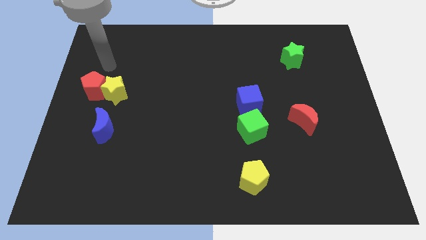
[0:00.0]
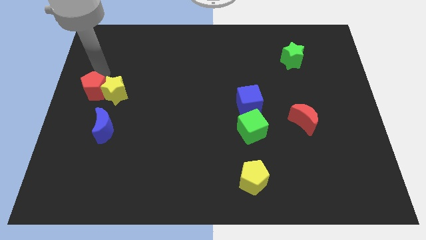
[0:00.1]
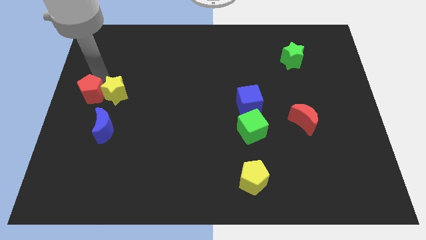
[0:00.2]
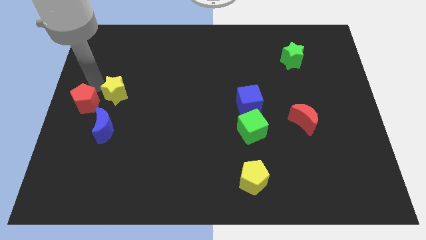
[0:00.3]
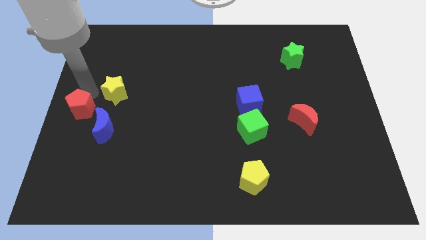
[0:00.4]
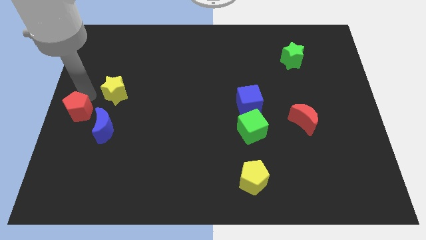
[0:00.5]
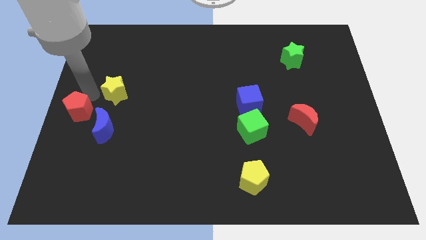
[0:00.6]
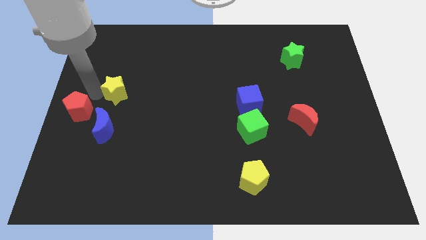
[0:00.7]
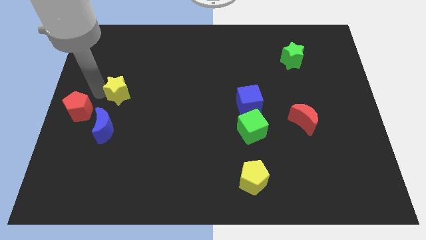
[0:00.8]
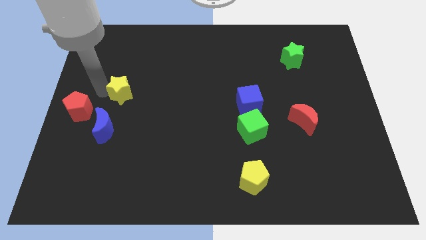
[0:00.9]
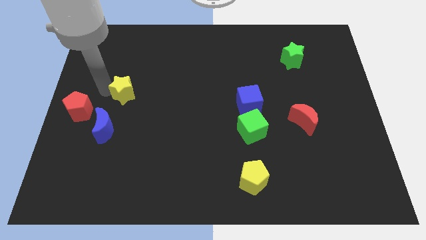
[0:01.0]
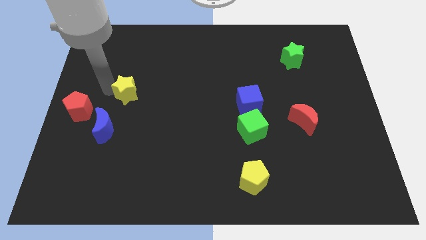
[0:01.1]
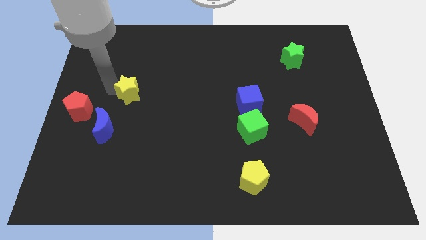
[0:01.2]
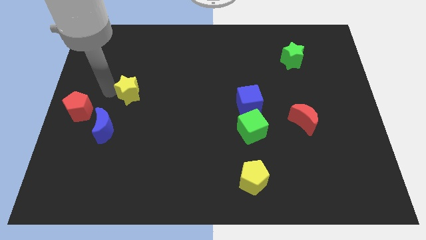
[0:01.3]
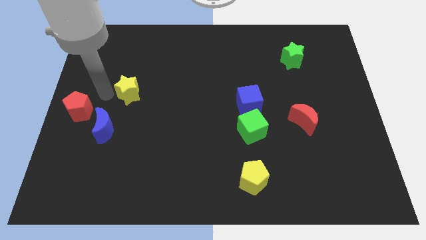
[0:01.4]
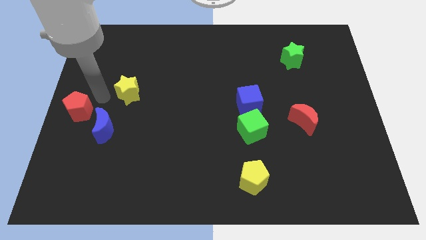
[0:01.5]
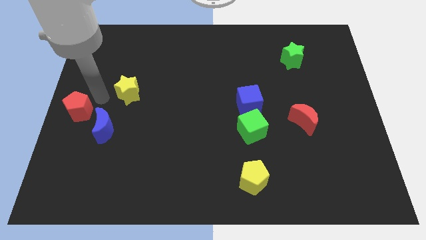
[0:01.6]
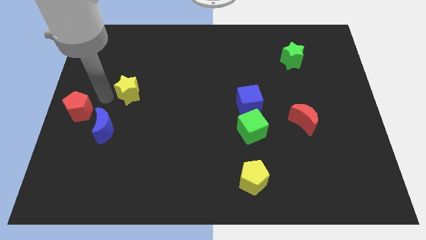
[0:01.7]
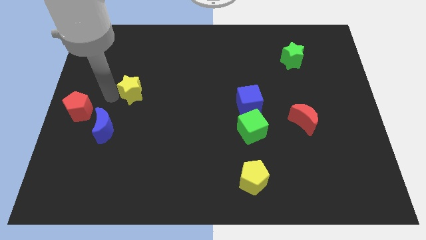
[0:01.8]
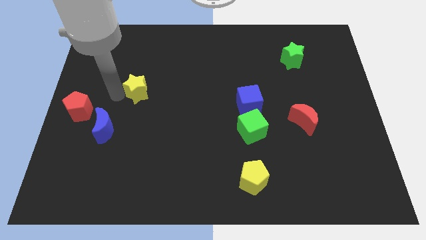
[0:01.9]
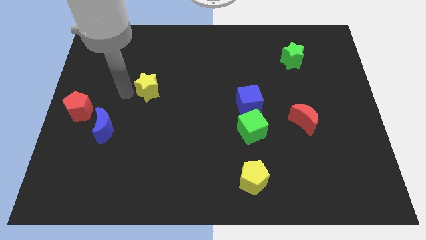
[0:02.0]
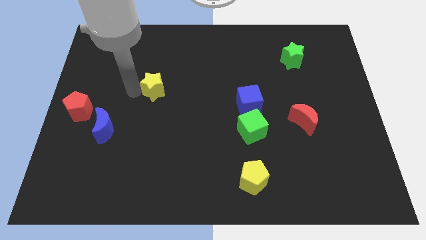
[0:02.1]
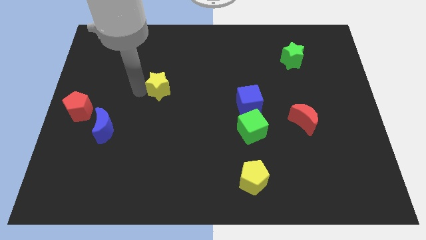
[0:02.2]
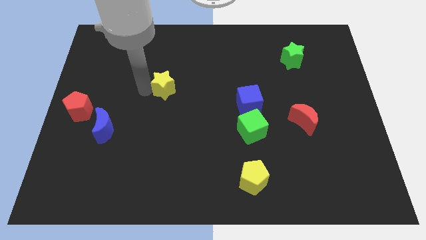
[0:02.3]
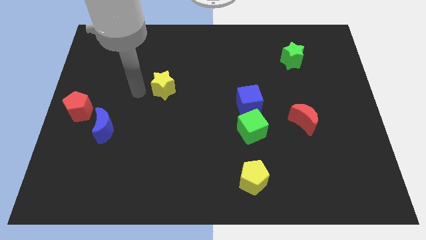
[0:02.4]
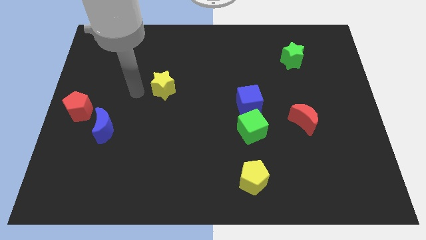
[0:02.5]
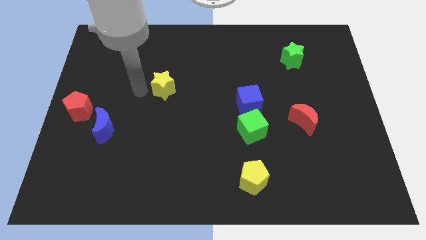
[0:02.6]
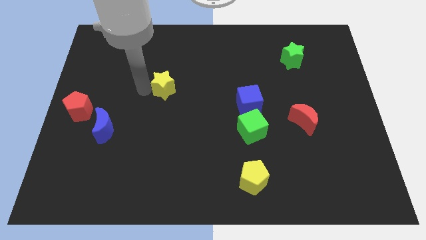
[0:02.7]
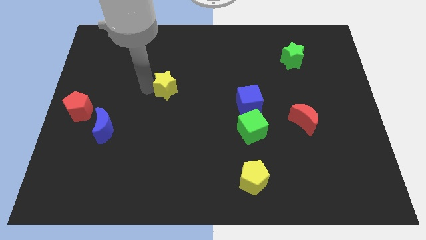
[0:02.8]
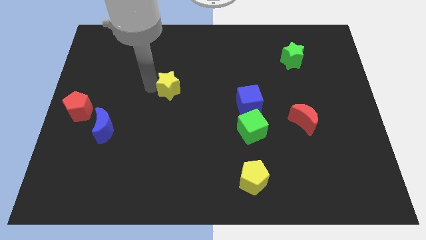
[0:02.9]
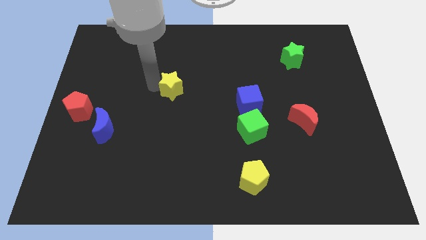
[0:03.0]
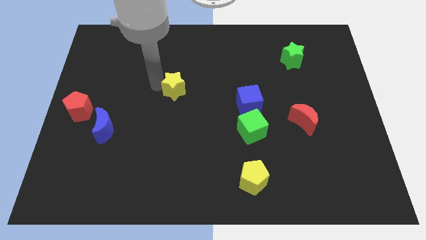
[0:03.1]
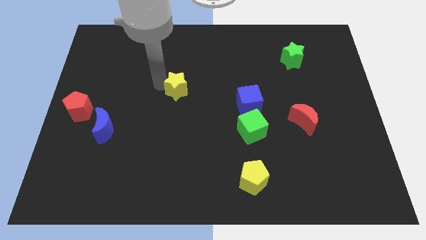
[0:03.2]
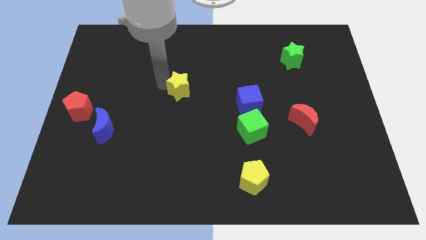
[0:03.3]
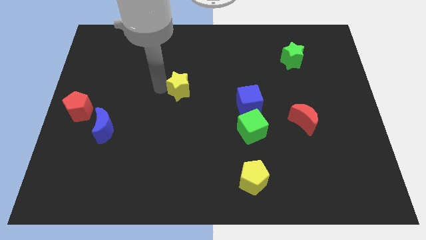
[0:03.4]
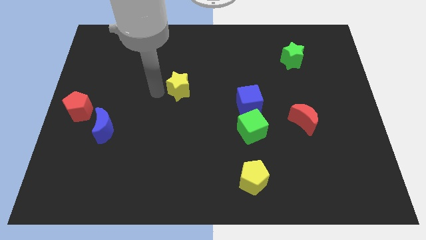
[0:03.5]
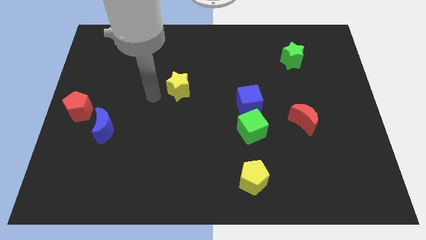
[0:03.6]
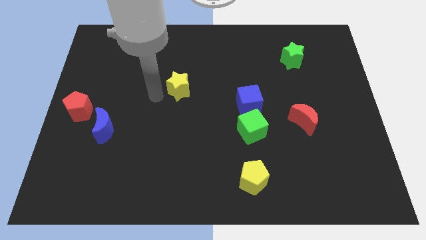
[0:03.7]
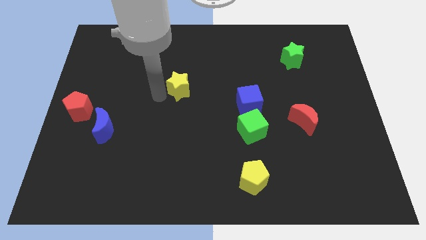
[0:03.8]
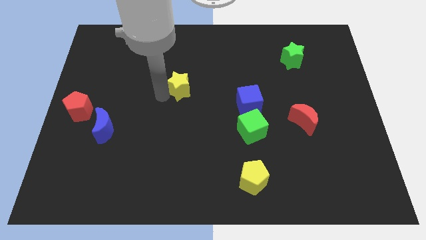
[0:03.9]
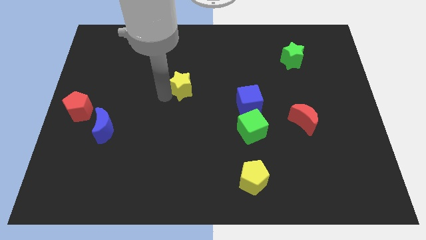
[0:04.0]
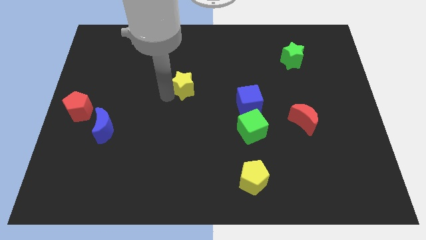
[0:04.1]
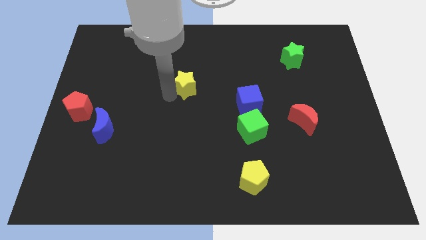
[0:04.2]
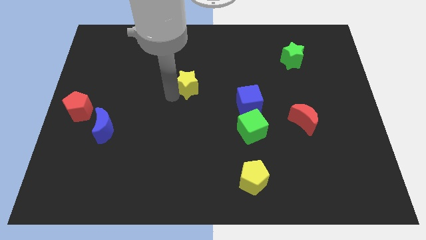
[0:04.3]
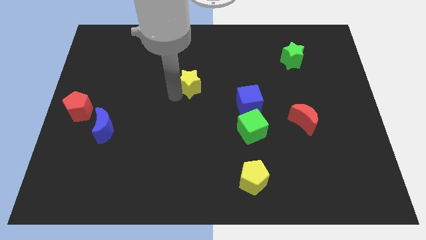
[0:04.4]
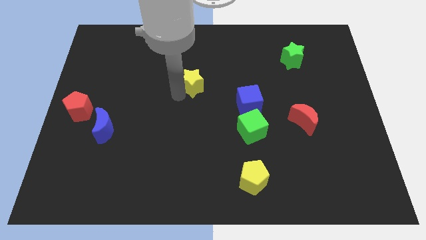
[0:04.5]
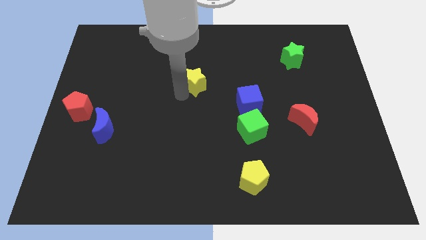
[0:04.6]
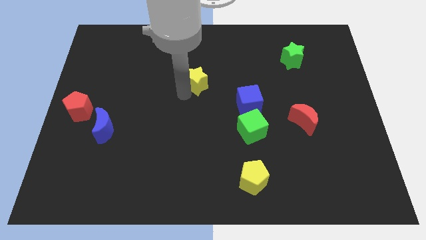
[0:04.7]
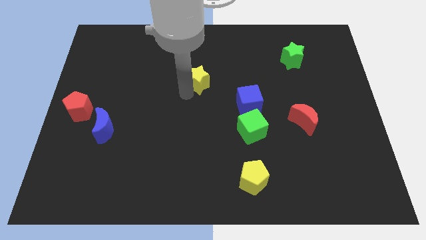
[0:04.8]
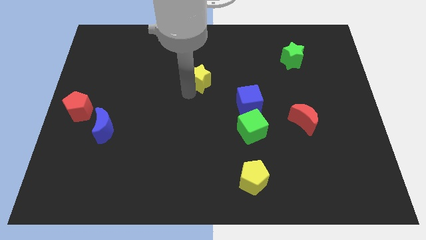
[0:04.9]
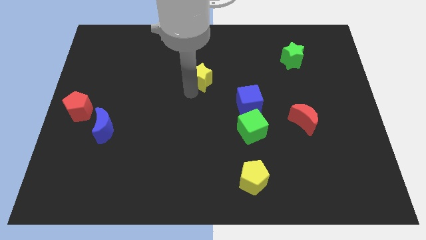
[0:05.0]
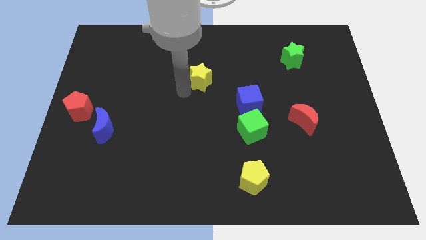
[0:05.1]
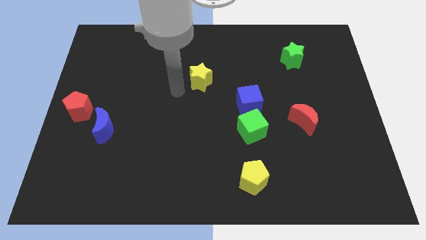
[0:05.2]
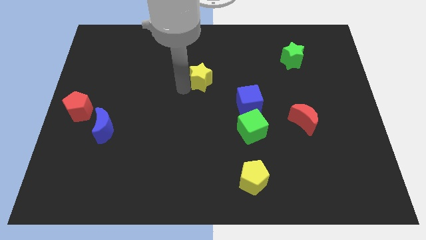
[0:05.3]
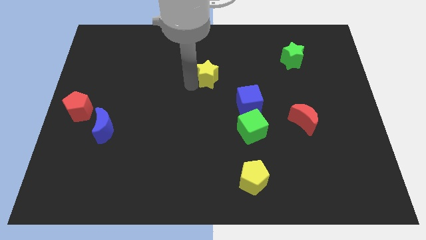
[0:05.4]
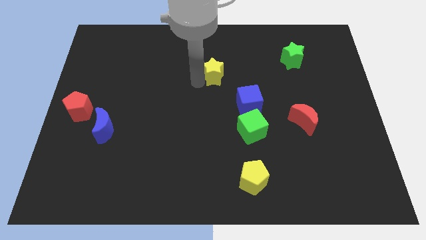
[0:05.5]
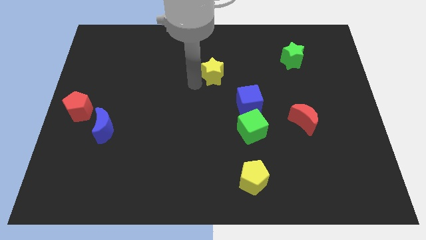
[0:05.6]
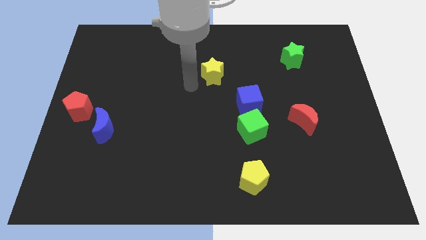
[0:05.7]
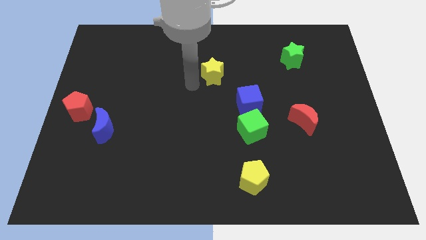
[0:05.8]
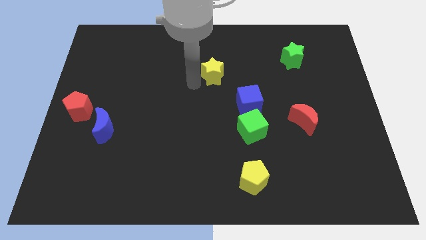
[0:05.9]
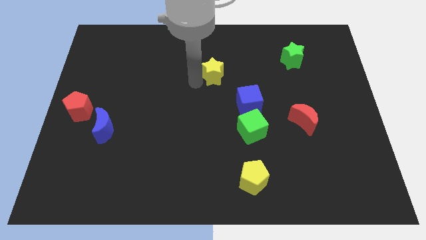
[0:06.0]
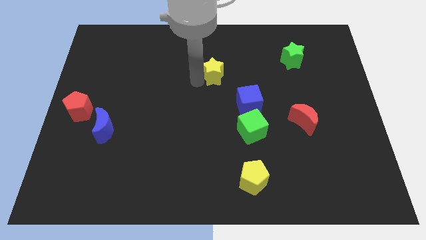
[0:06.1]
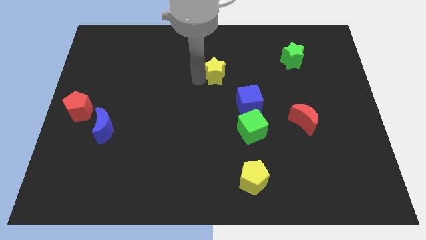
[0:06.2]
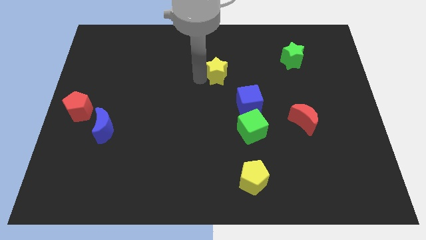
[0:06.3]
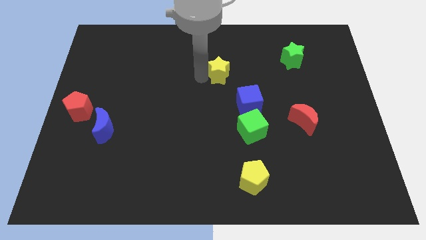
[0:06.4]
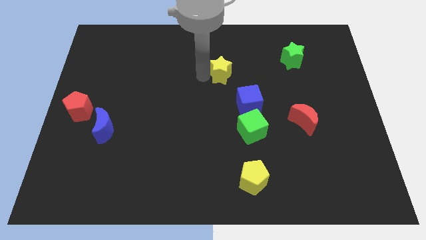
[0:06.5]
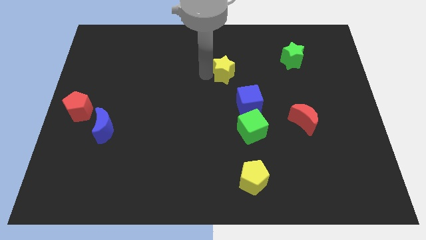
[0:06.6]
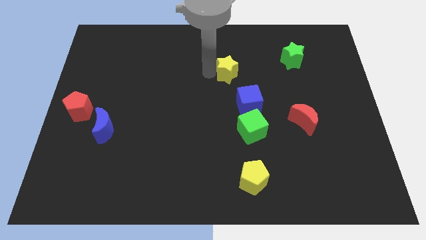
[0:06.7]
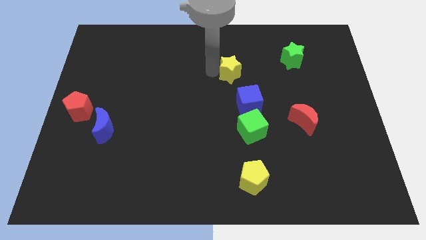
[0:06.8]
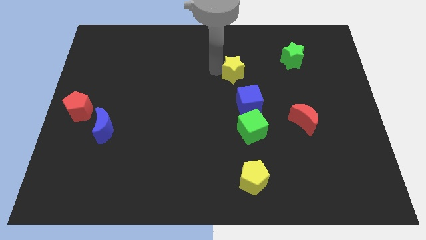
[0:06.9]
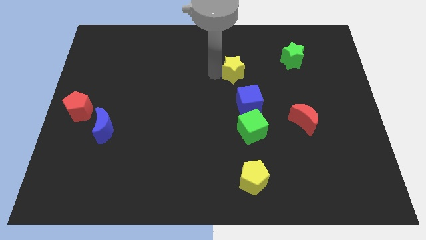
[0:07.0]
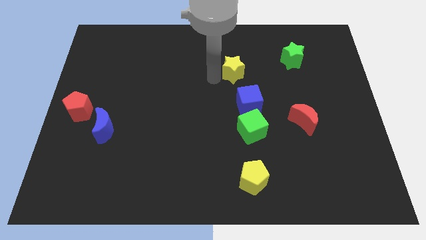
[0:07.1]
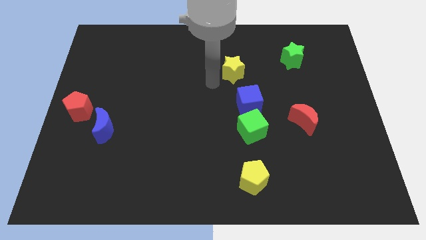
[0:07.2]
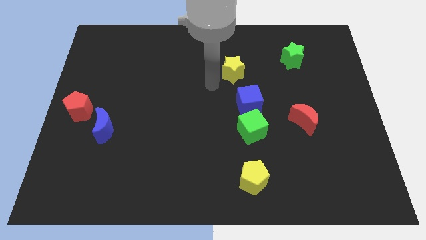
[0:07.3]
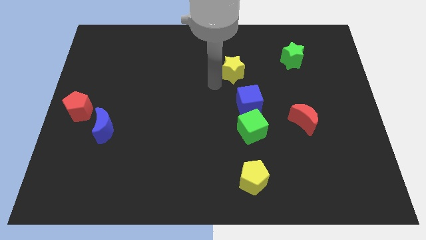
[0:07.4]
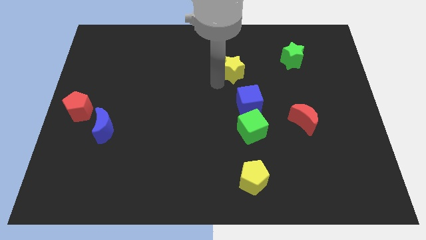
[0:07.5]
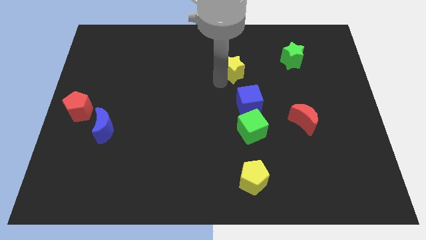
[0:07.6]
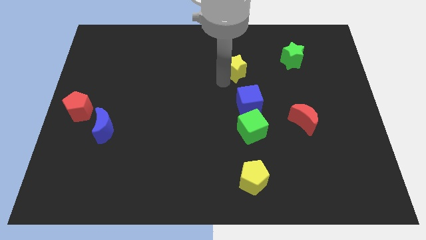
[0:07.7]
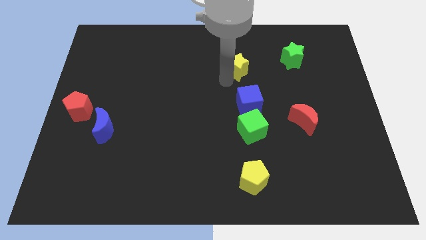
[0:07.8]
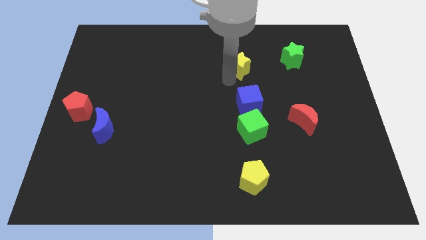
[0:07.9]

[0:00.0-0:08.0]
push the yellow star just left of the green star

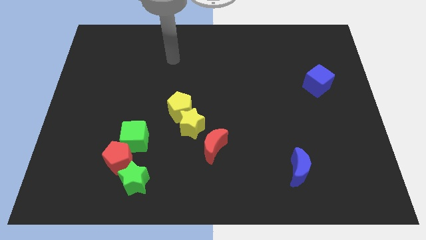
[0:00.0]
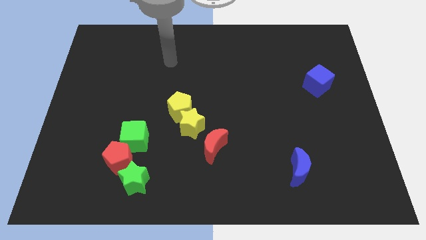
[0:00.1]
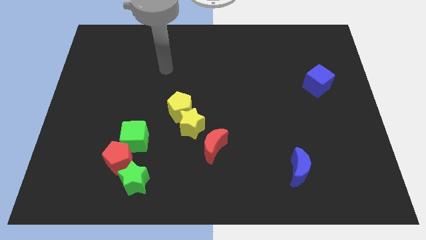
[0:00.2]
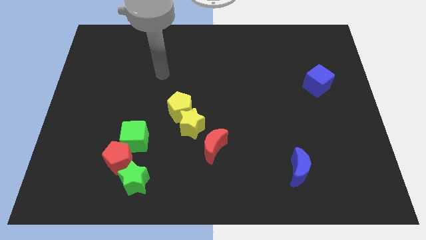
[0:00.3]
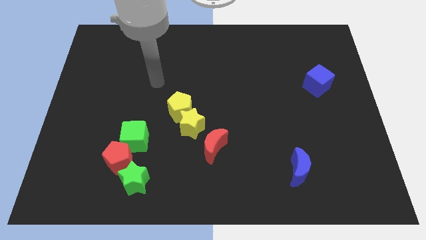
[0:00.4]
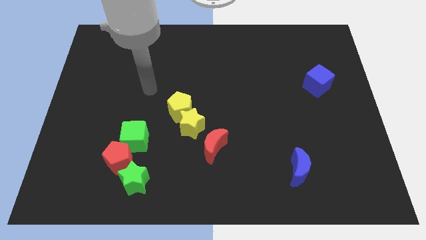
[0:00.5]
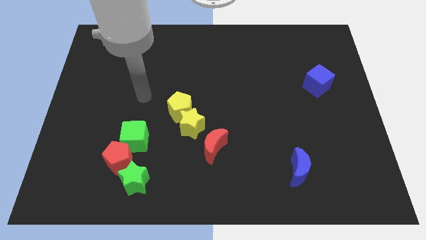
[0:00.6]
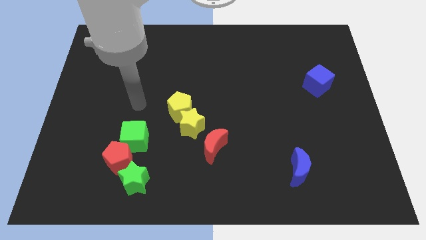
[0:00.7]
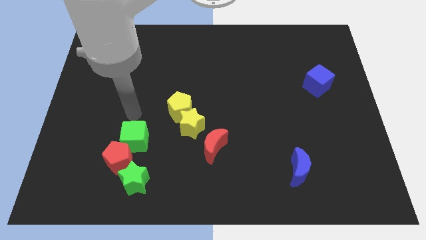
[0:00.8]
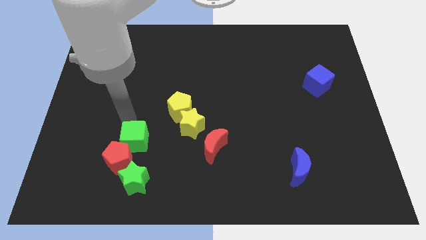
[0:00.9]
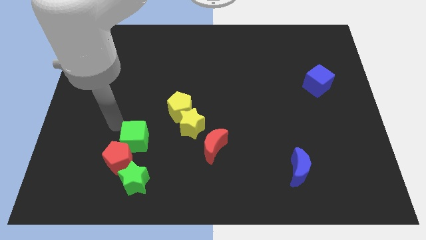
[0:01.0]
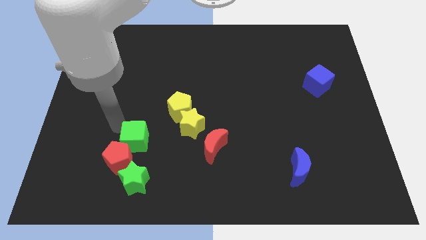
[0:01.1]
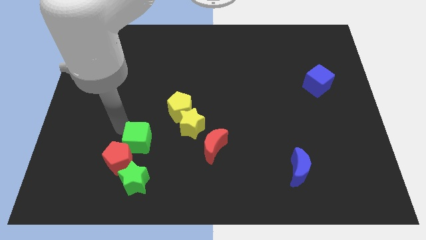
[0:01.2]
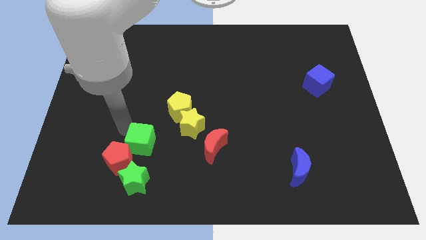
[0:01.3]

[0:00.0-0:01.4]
push the green cube to the right of the red pentagon
